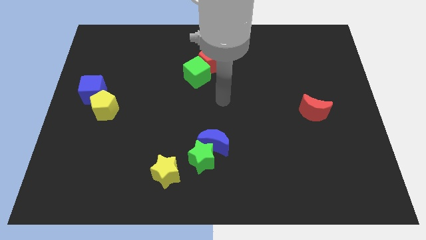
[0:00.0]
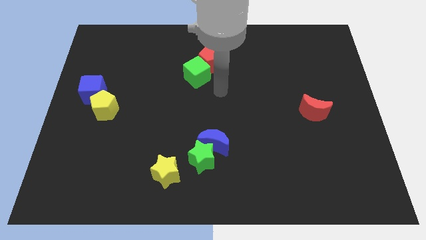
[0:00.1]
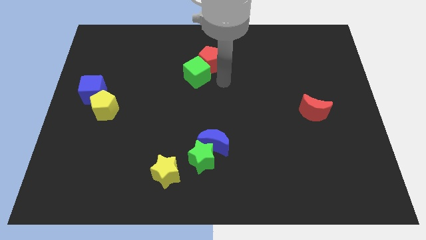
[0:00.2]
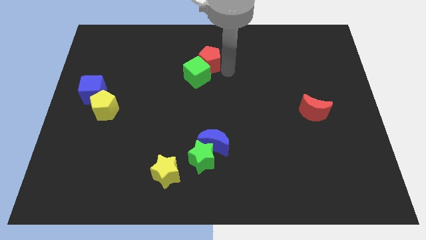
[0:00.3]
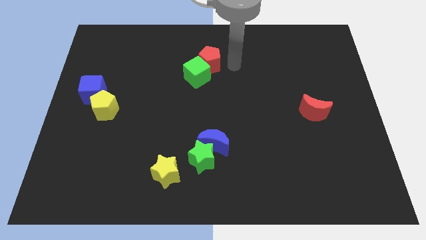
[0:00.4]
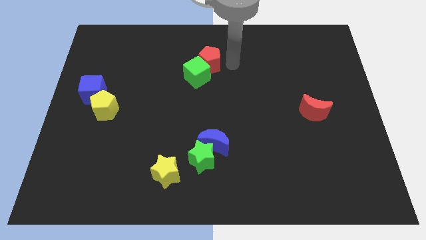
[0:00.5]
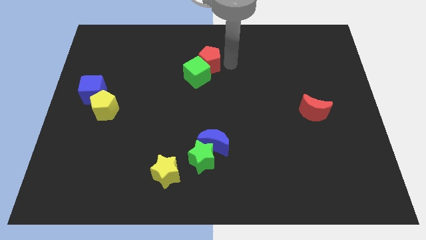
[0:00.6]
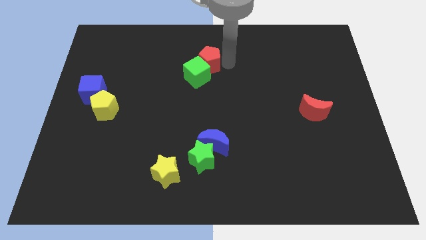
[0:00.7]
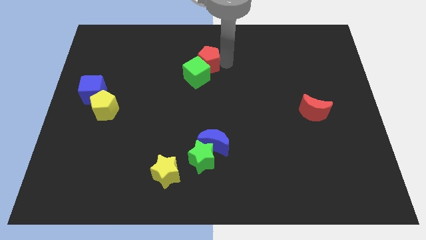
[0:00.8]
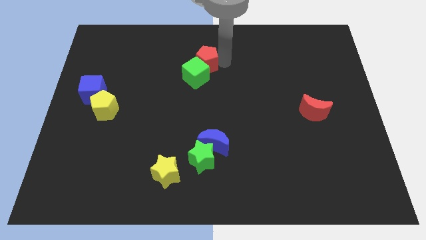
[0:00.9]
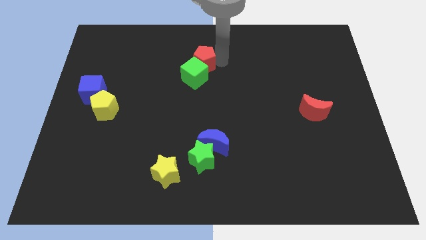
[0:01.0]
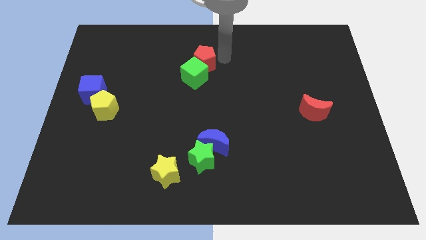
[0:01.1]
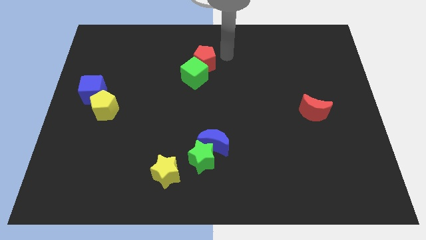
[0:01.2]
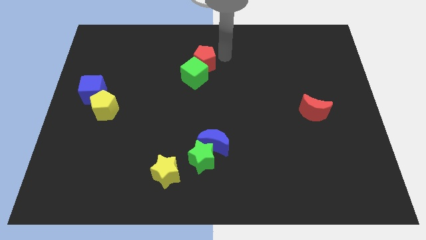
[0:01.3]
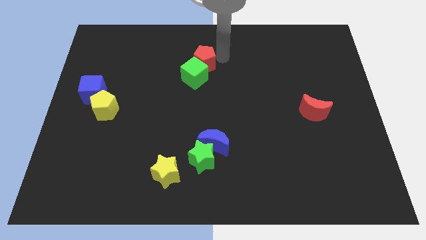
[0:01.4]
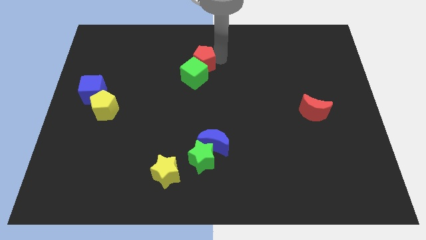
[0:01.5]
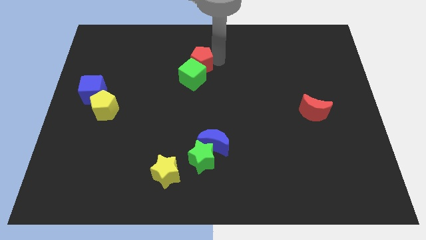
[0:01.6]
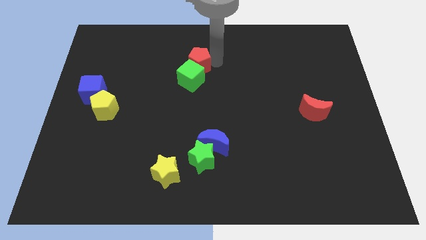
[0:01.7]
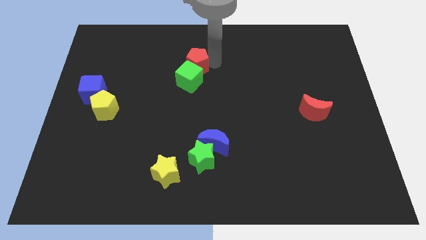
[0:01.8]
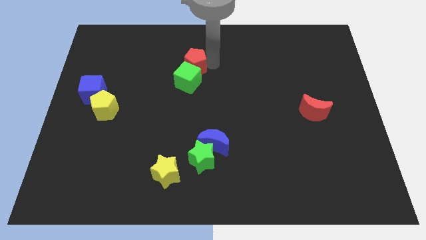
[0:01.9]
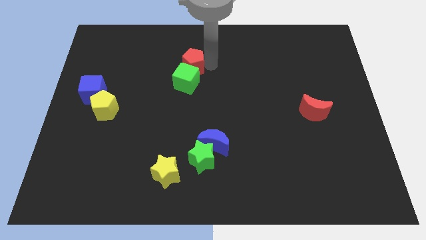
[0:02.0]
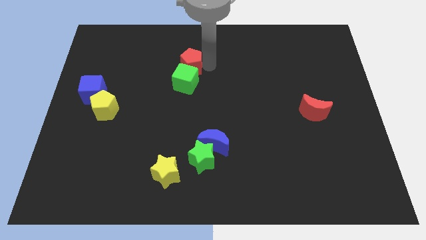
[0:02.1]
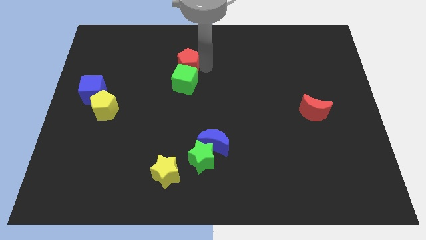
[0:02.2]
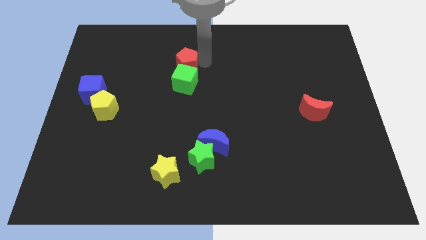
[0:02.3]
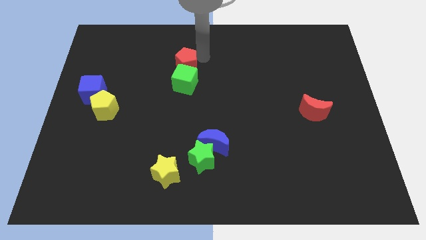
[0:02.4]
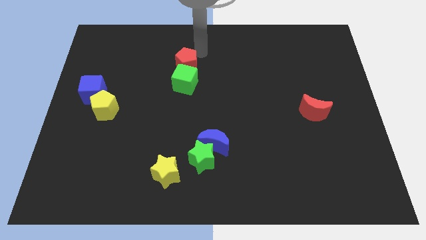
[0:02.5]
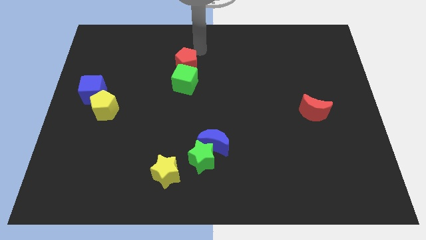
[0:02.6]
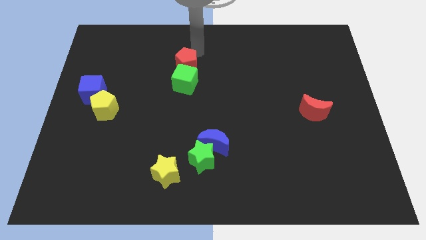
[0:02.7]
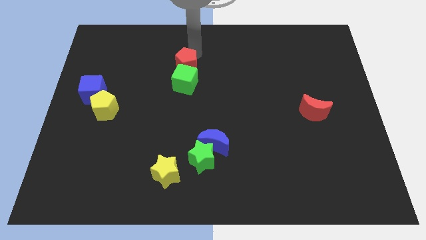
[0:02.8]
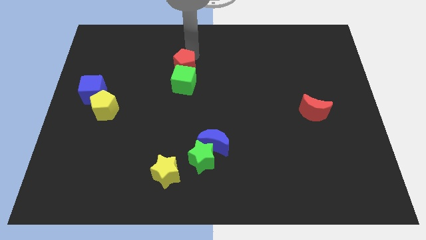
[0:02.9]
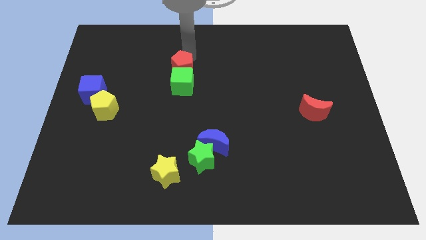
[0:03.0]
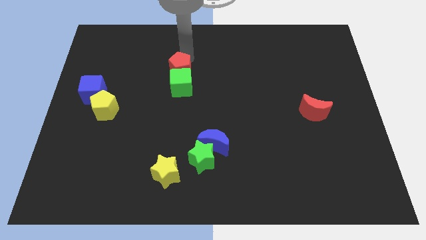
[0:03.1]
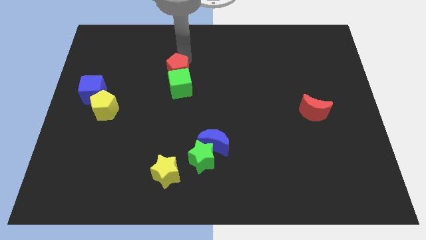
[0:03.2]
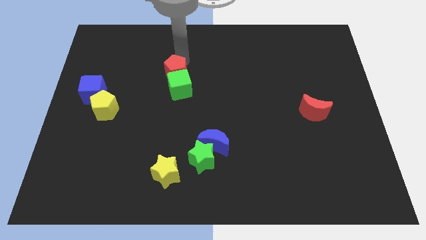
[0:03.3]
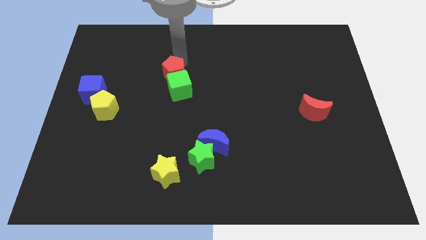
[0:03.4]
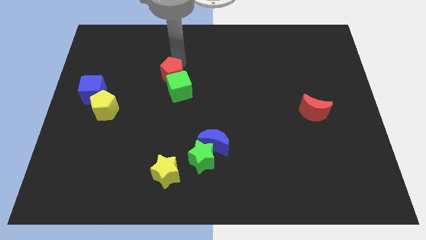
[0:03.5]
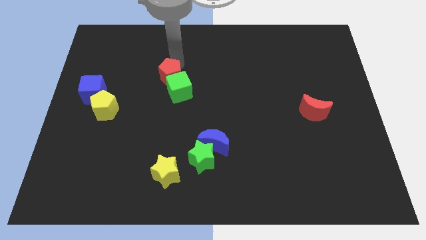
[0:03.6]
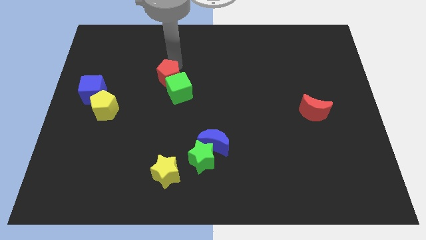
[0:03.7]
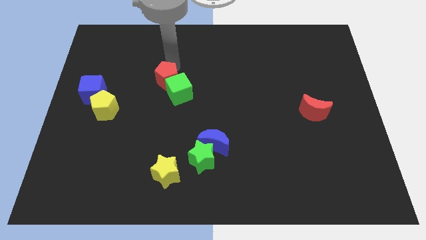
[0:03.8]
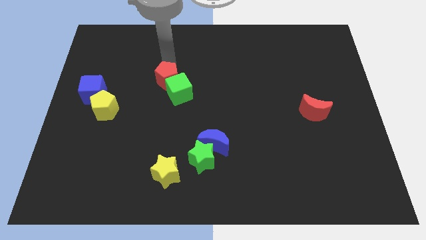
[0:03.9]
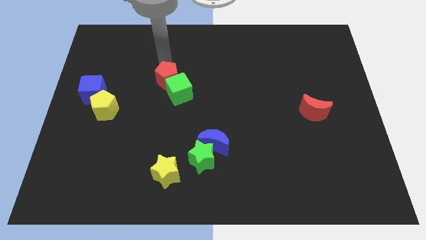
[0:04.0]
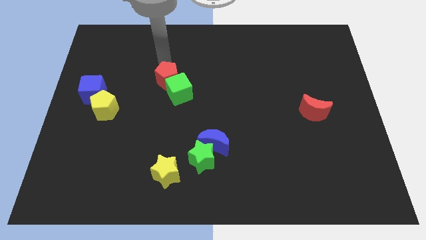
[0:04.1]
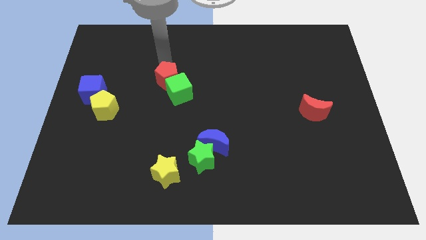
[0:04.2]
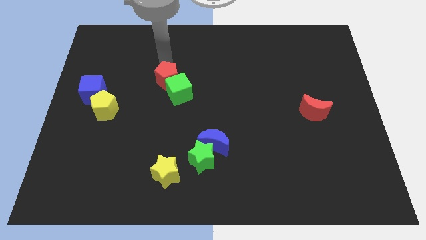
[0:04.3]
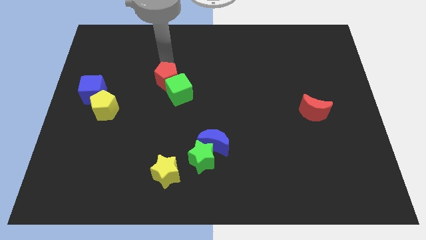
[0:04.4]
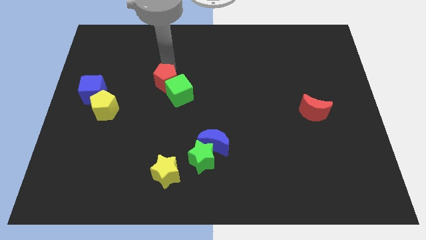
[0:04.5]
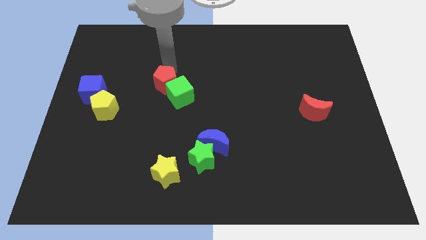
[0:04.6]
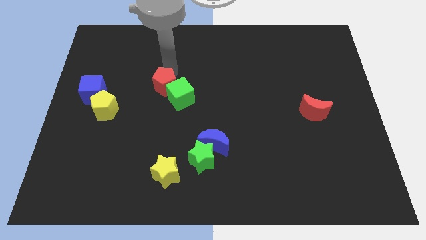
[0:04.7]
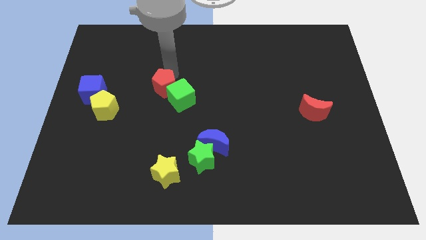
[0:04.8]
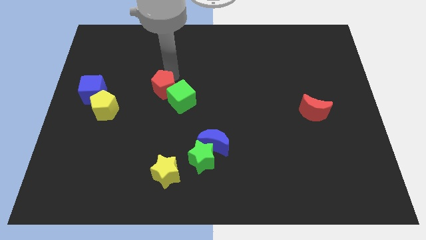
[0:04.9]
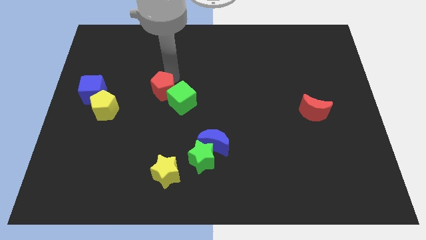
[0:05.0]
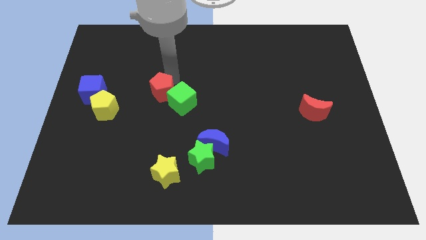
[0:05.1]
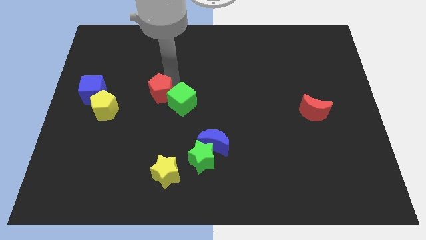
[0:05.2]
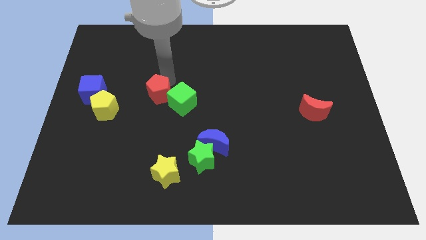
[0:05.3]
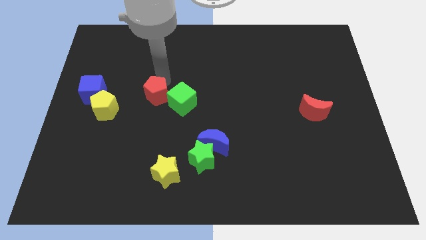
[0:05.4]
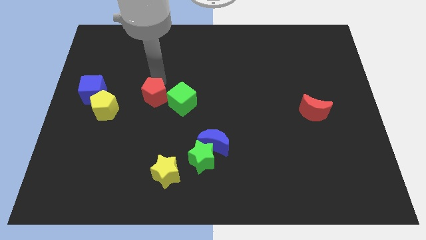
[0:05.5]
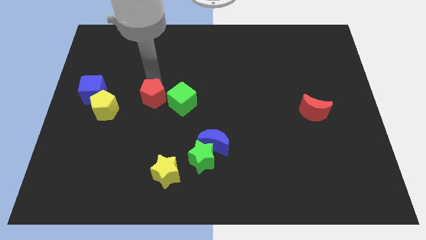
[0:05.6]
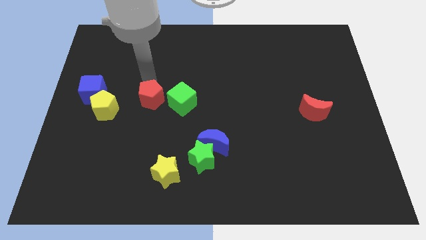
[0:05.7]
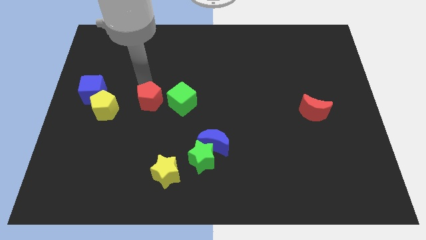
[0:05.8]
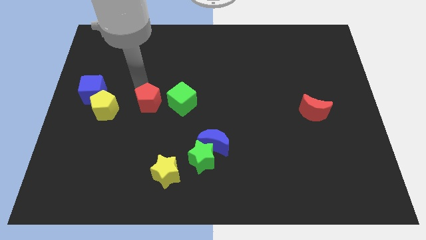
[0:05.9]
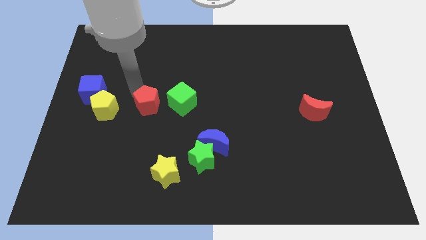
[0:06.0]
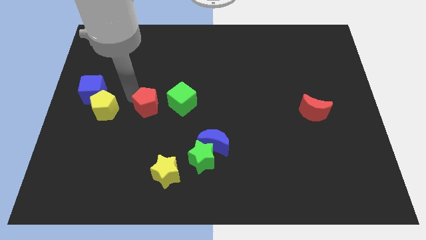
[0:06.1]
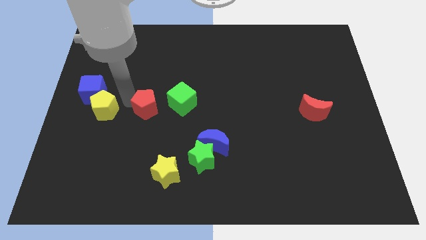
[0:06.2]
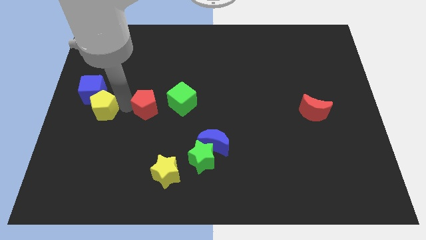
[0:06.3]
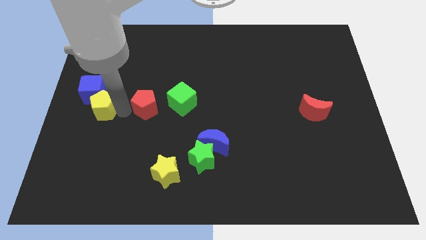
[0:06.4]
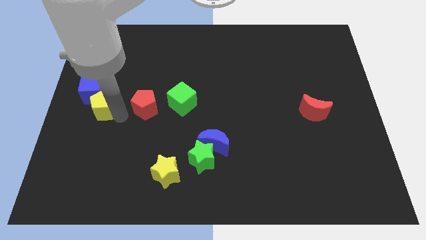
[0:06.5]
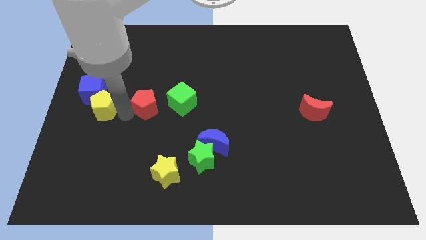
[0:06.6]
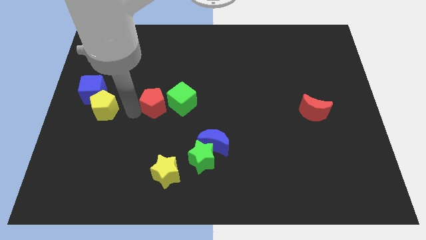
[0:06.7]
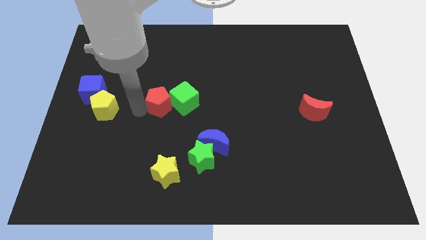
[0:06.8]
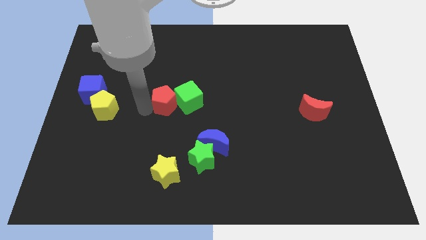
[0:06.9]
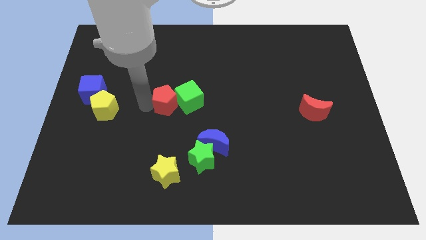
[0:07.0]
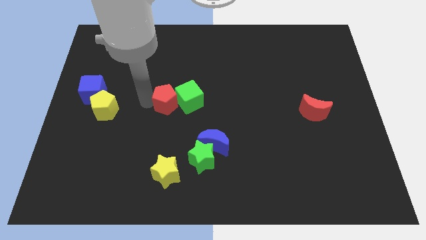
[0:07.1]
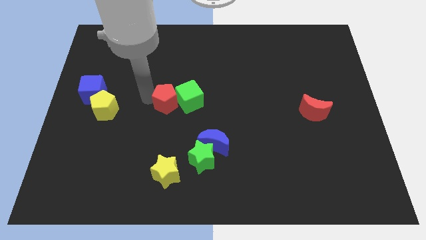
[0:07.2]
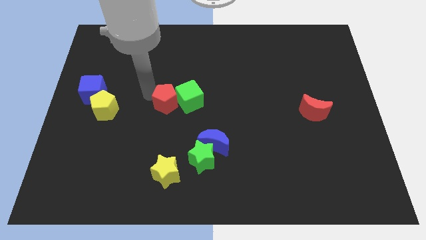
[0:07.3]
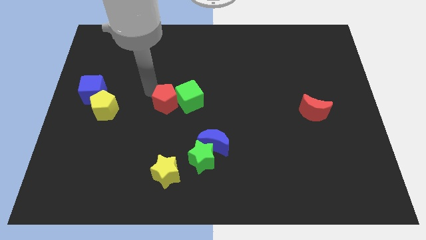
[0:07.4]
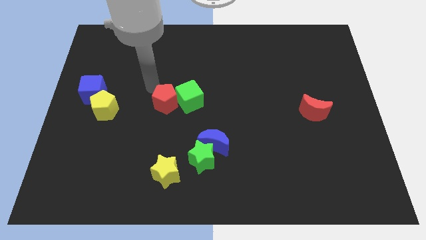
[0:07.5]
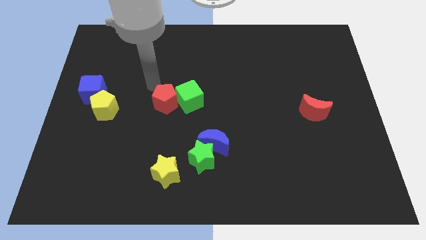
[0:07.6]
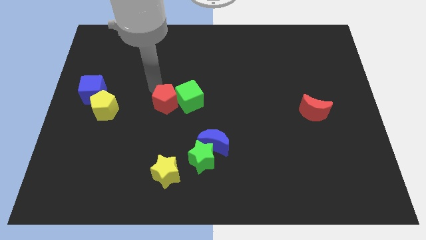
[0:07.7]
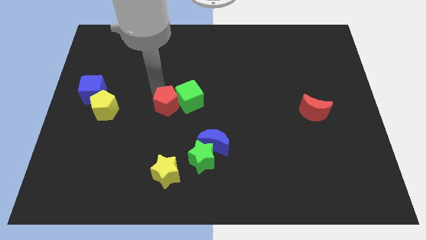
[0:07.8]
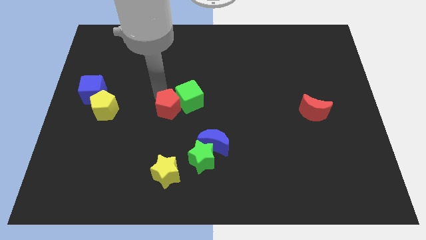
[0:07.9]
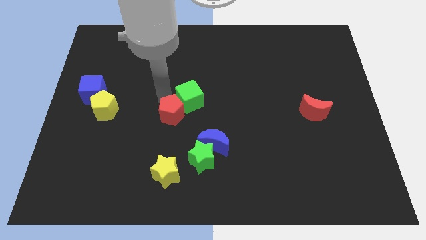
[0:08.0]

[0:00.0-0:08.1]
move the red pentagon to the top of the yellow star
